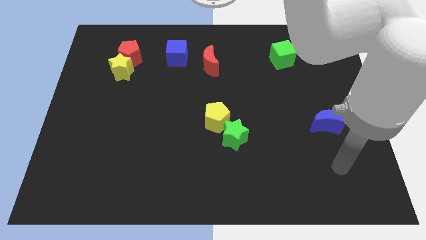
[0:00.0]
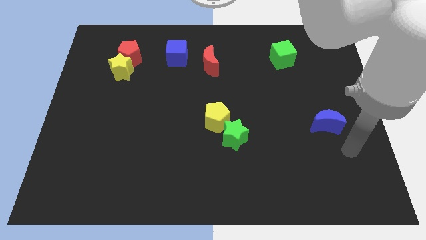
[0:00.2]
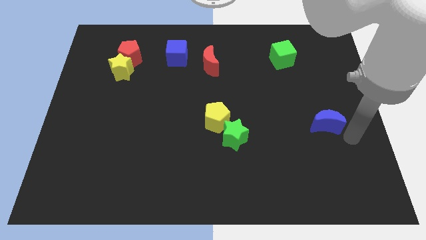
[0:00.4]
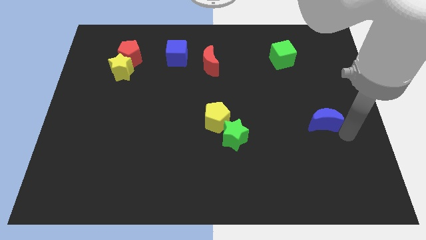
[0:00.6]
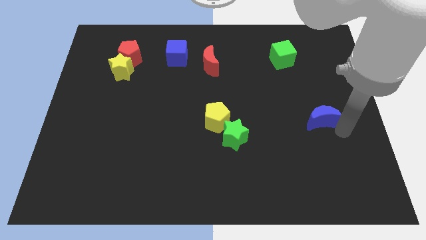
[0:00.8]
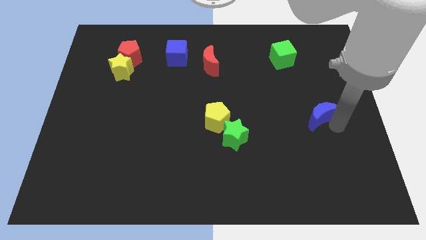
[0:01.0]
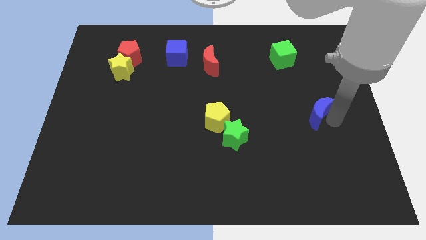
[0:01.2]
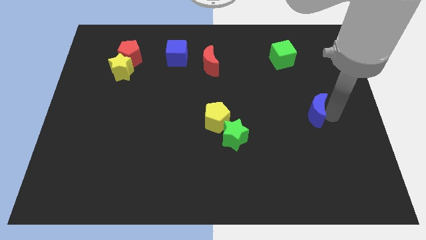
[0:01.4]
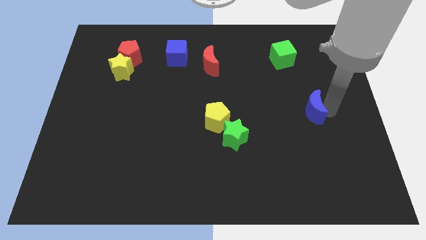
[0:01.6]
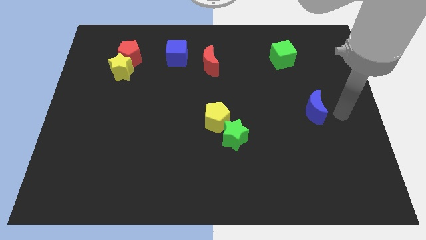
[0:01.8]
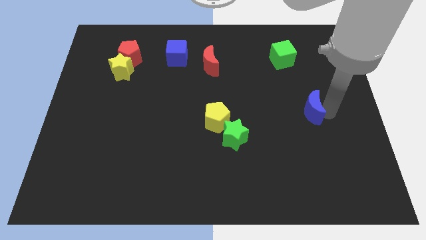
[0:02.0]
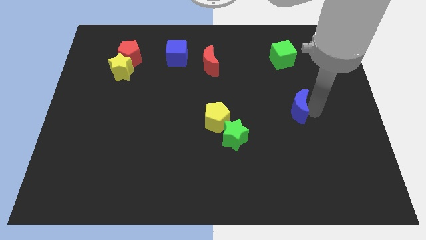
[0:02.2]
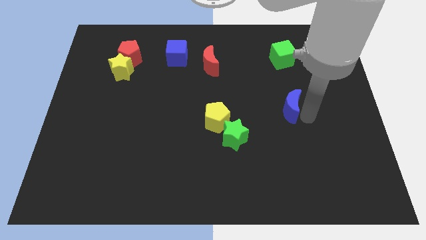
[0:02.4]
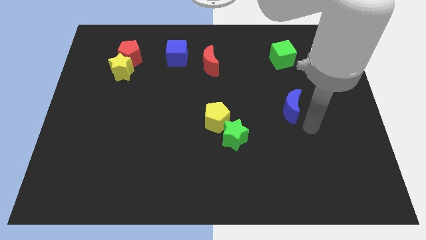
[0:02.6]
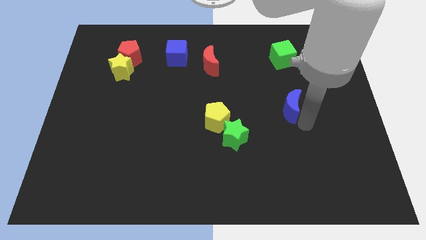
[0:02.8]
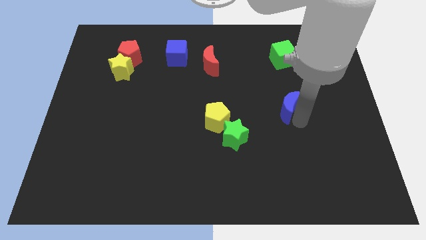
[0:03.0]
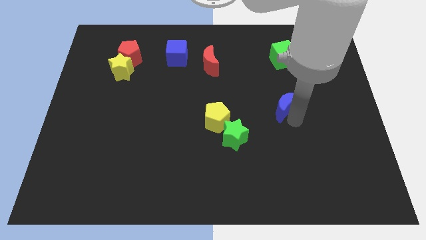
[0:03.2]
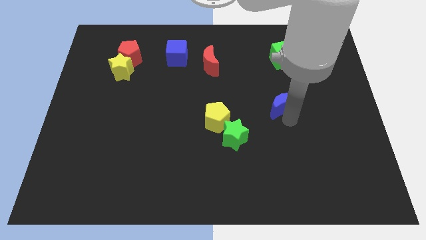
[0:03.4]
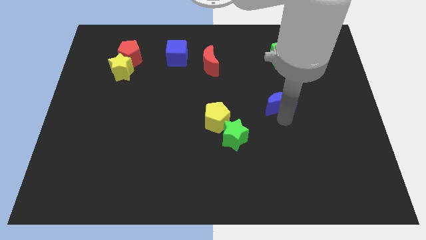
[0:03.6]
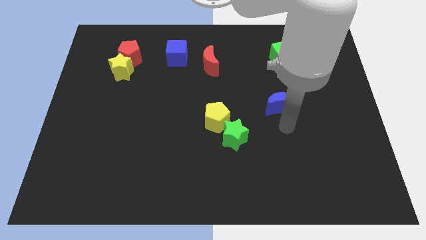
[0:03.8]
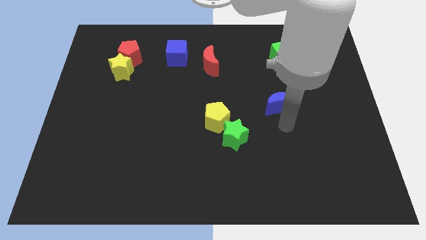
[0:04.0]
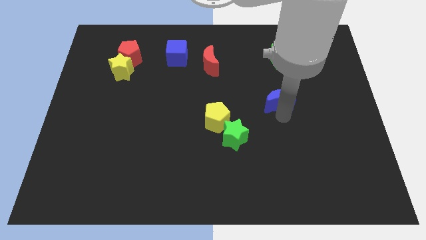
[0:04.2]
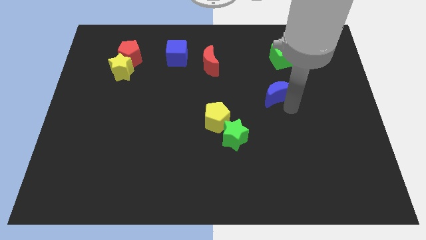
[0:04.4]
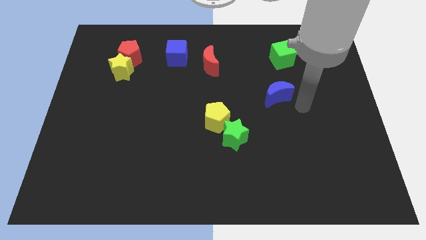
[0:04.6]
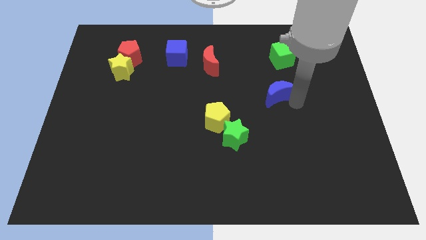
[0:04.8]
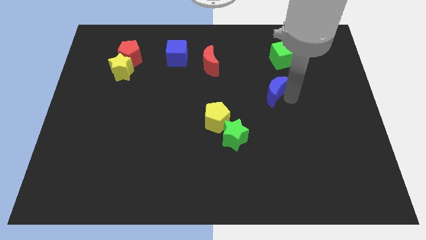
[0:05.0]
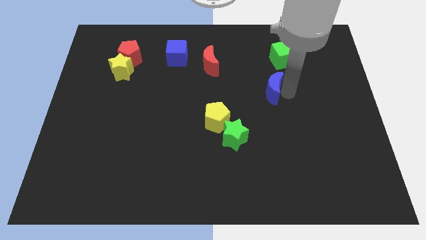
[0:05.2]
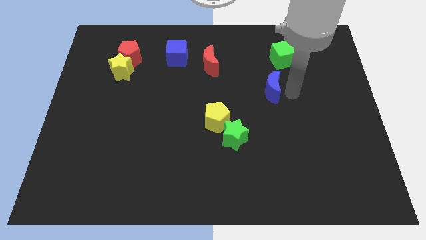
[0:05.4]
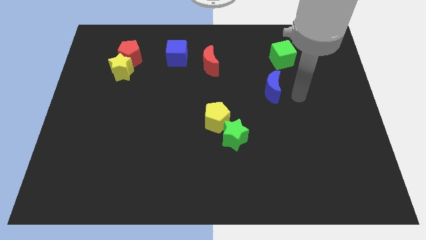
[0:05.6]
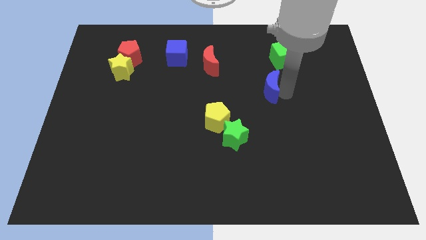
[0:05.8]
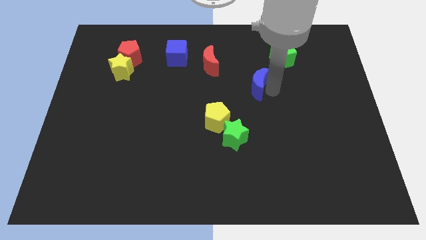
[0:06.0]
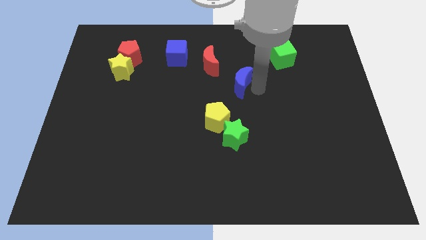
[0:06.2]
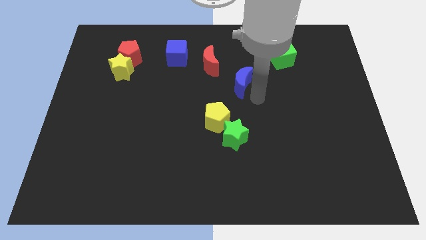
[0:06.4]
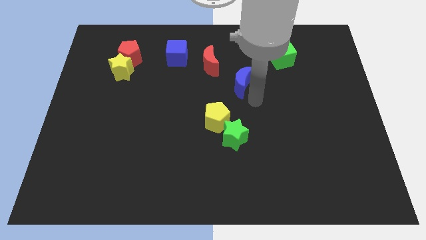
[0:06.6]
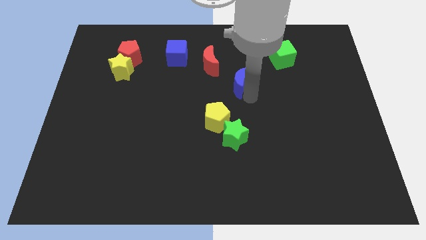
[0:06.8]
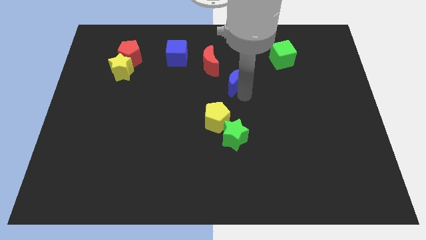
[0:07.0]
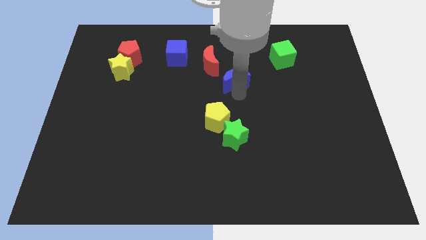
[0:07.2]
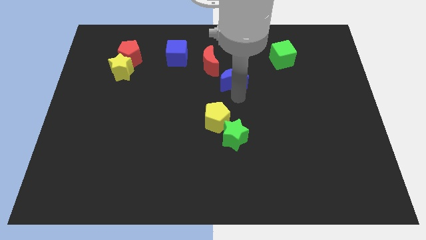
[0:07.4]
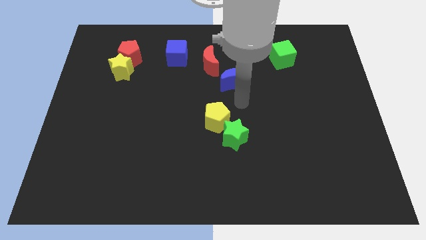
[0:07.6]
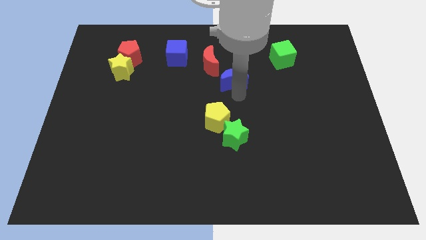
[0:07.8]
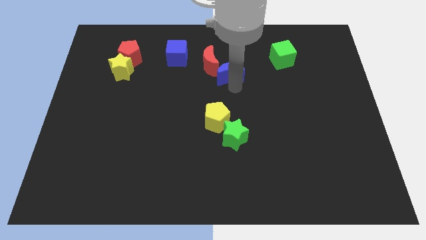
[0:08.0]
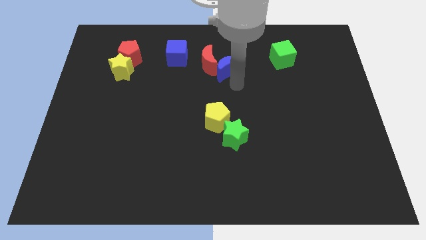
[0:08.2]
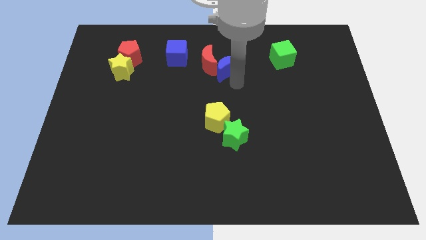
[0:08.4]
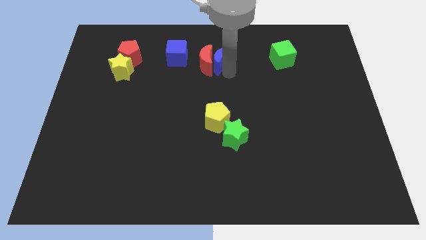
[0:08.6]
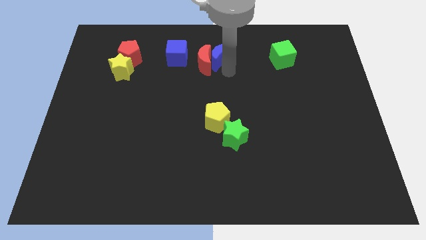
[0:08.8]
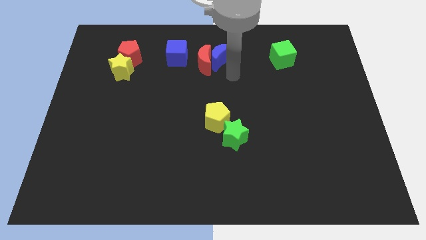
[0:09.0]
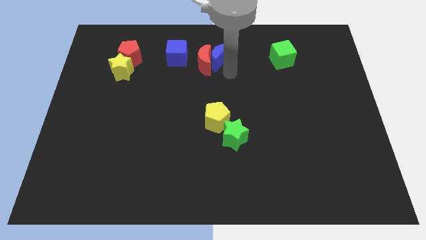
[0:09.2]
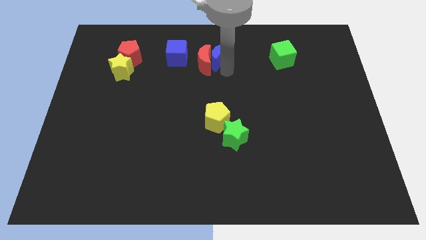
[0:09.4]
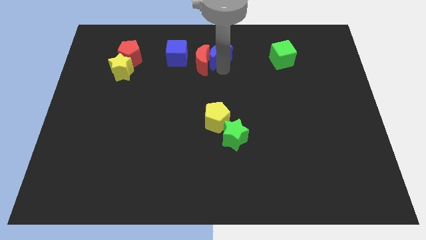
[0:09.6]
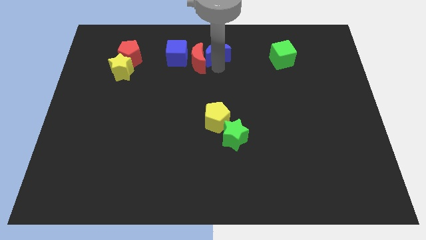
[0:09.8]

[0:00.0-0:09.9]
put the blue moon to the towards your base

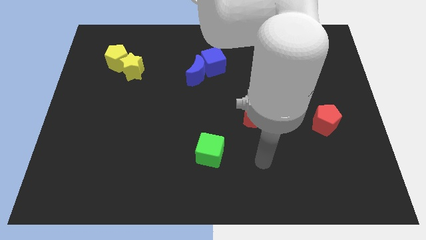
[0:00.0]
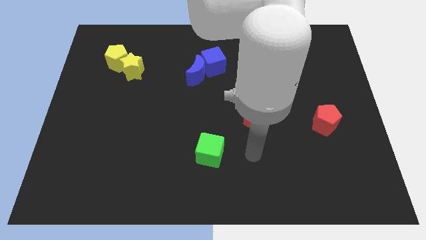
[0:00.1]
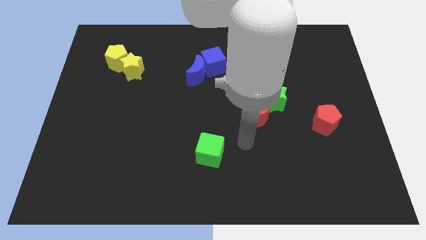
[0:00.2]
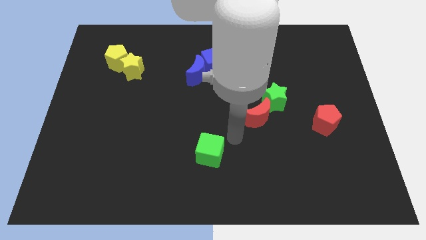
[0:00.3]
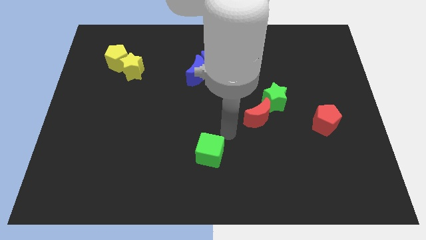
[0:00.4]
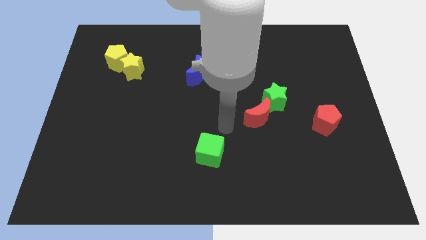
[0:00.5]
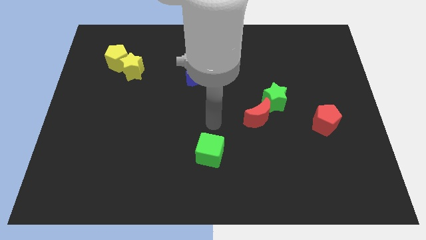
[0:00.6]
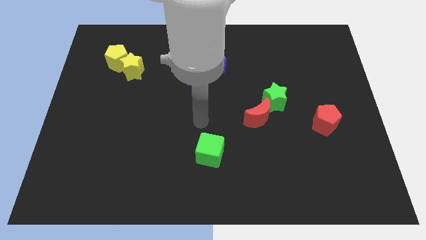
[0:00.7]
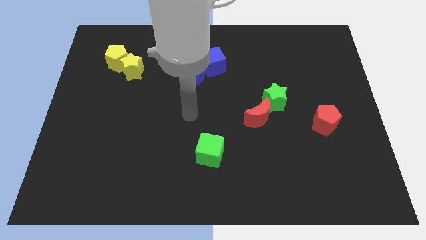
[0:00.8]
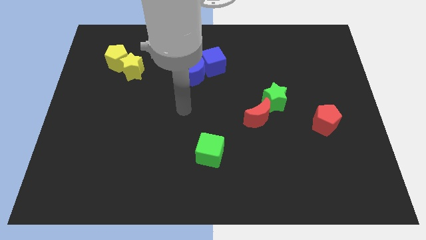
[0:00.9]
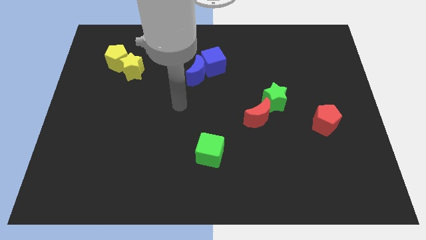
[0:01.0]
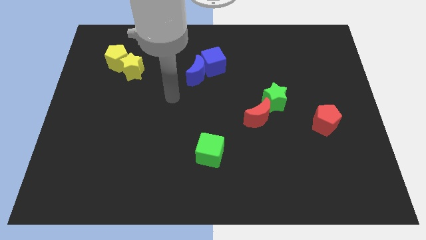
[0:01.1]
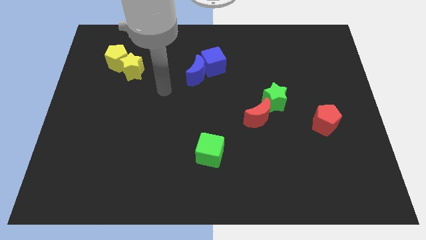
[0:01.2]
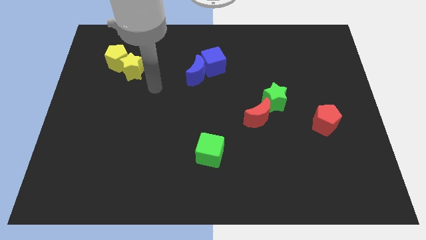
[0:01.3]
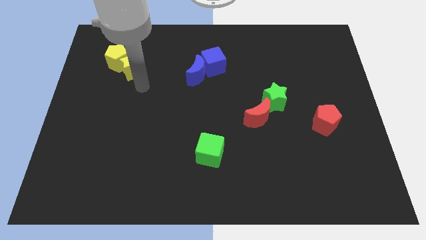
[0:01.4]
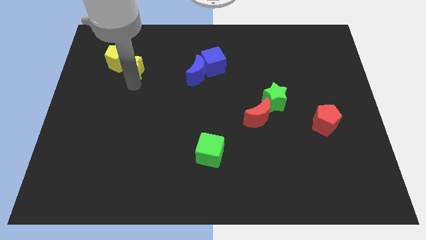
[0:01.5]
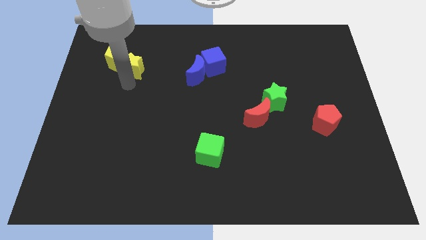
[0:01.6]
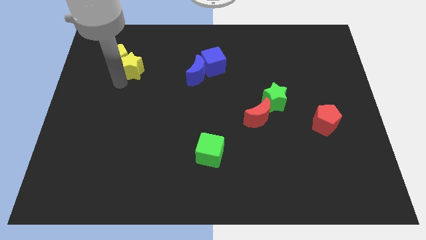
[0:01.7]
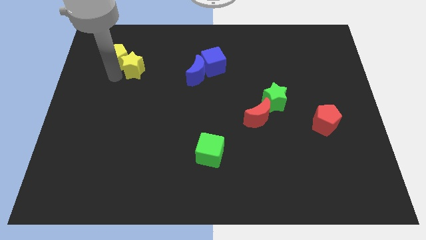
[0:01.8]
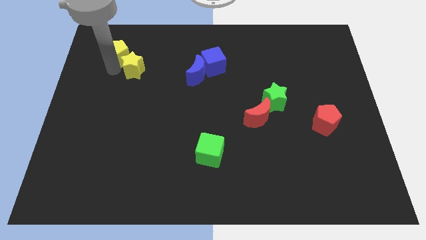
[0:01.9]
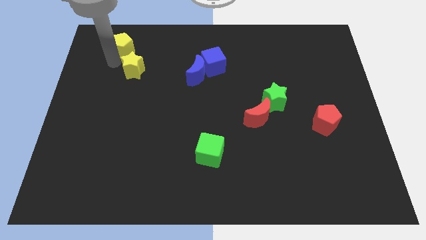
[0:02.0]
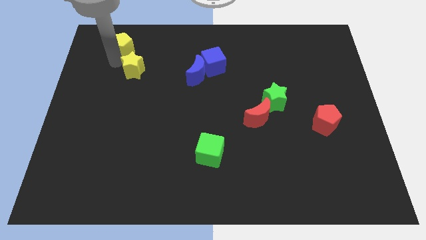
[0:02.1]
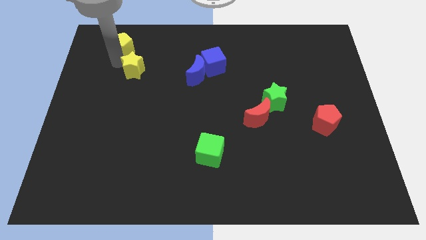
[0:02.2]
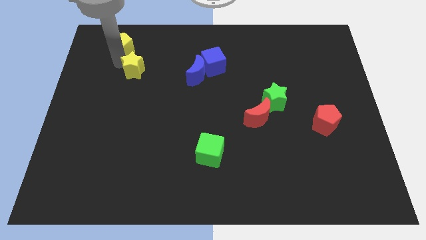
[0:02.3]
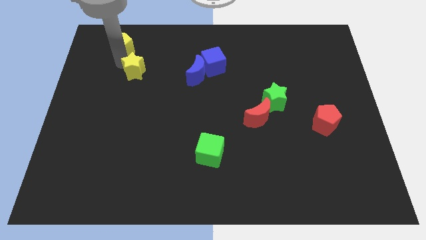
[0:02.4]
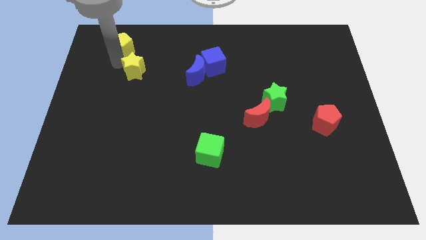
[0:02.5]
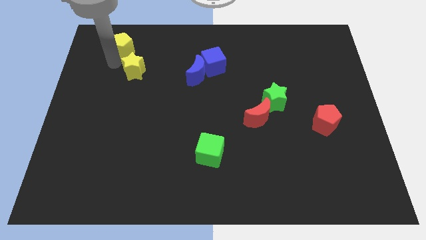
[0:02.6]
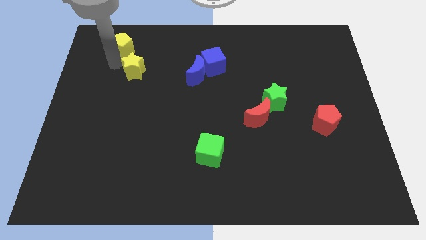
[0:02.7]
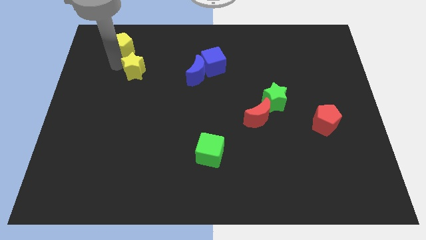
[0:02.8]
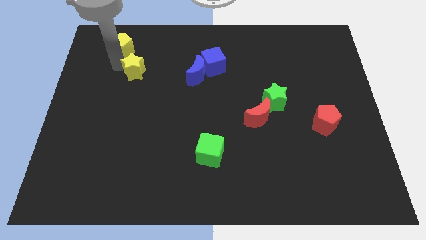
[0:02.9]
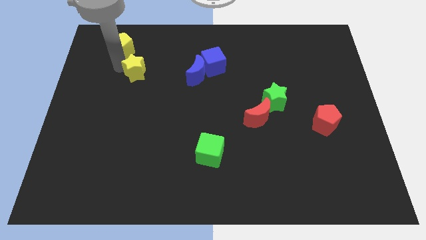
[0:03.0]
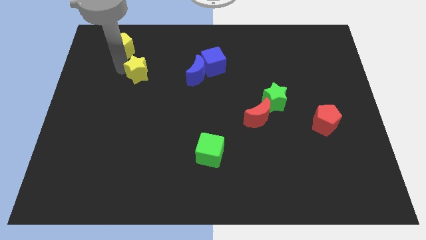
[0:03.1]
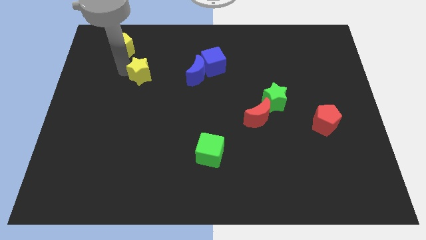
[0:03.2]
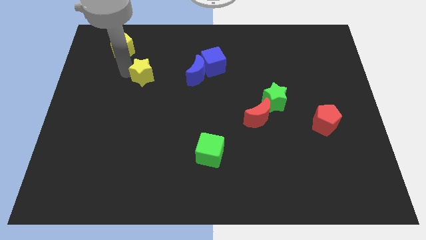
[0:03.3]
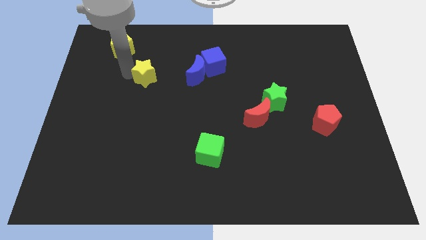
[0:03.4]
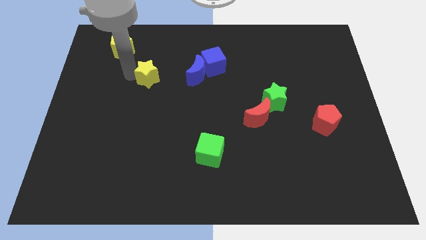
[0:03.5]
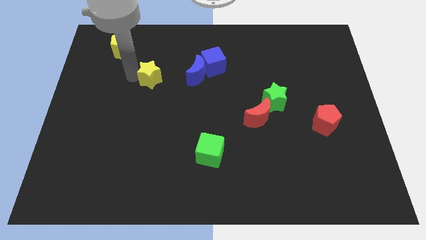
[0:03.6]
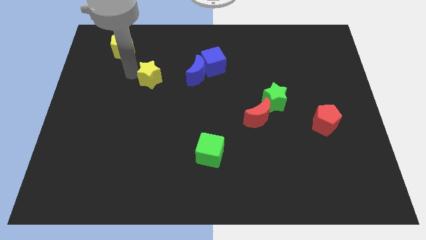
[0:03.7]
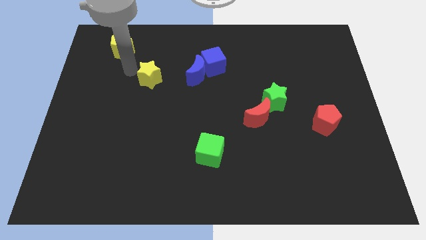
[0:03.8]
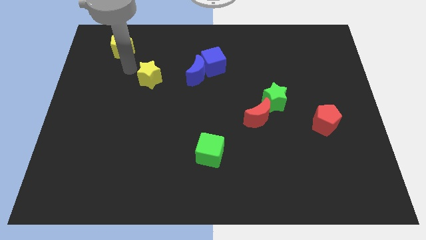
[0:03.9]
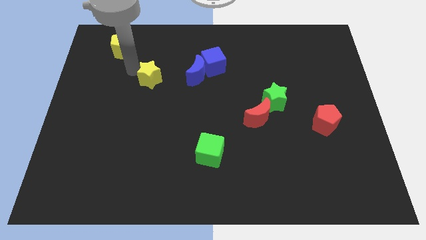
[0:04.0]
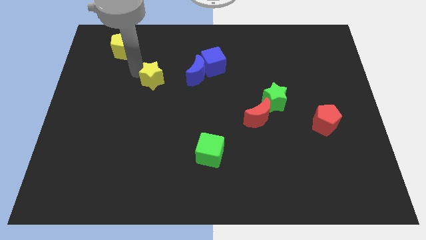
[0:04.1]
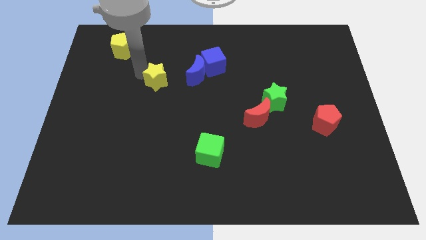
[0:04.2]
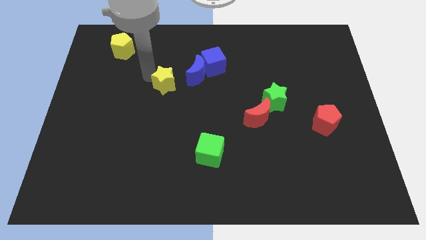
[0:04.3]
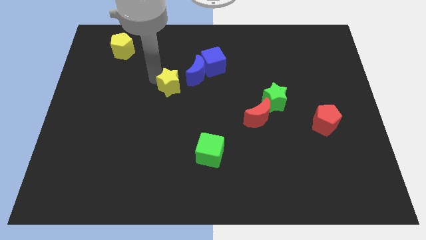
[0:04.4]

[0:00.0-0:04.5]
put the yellow star to the center of the board
